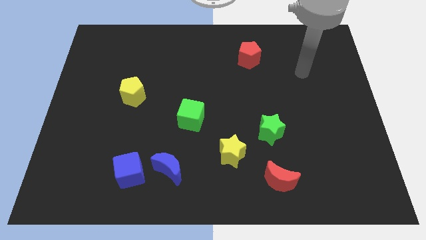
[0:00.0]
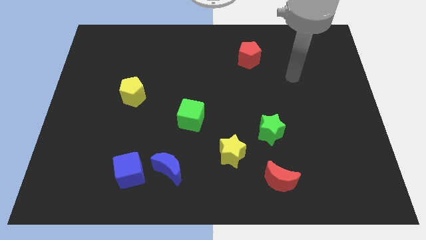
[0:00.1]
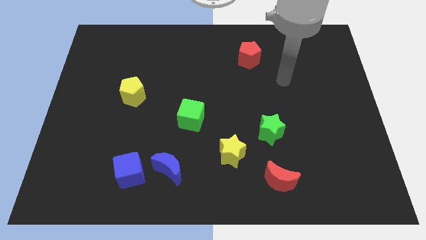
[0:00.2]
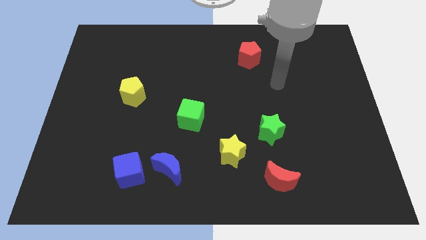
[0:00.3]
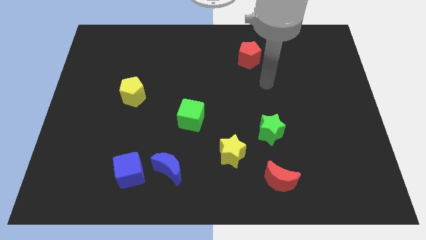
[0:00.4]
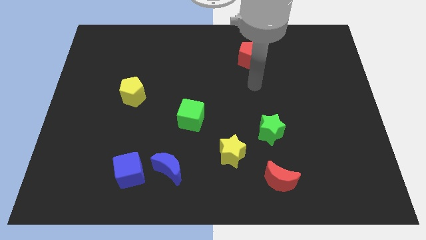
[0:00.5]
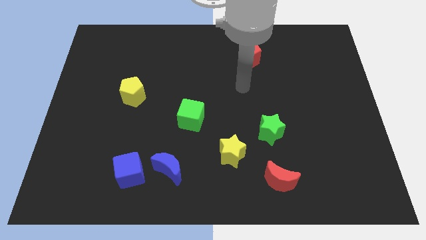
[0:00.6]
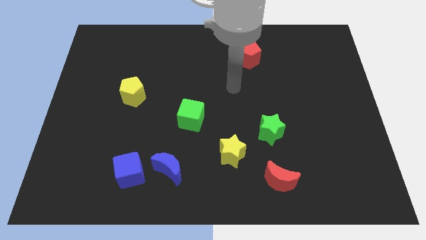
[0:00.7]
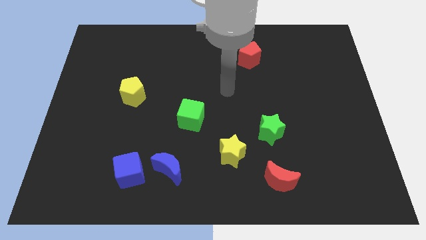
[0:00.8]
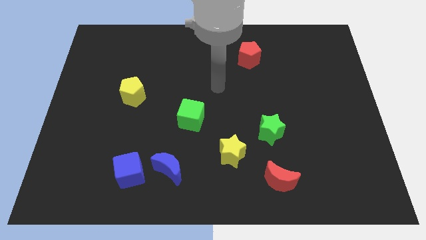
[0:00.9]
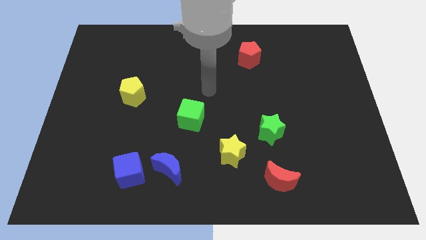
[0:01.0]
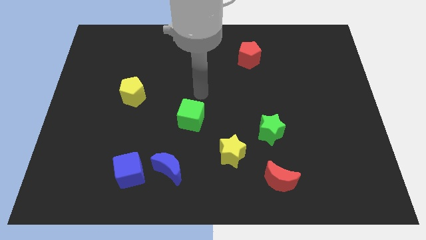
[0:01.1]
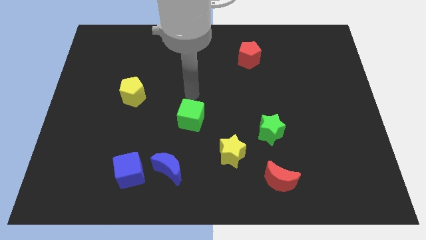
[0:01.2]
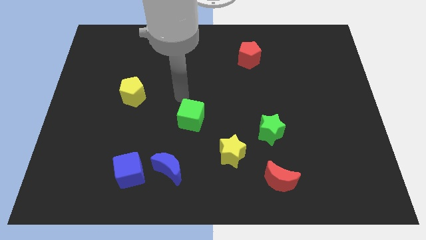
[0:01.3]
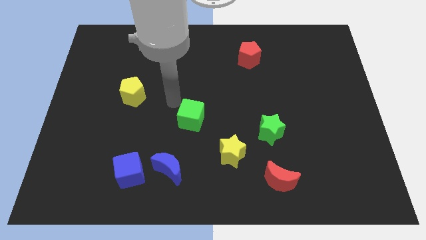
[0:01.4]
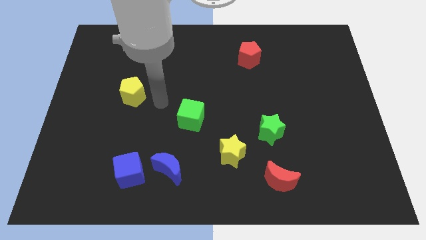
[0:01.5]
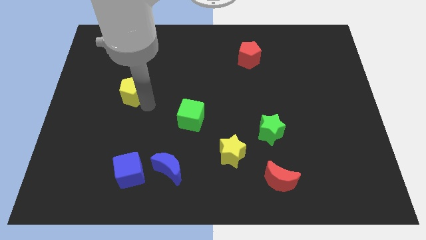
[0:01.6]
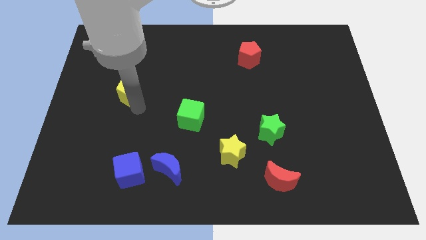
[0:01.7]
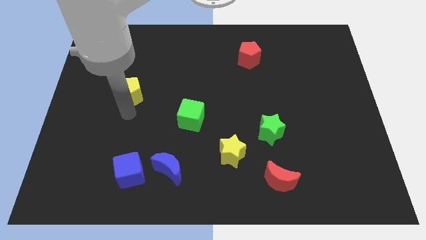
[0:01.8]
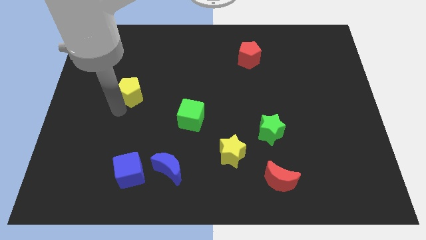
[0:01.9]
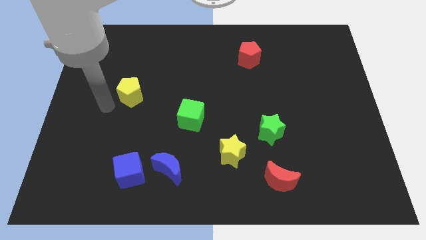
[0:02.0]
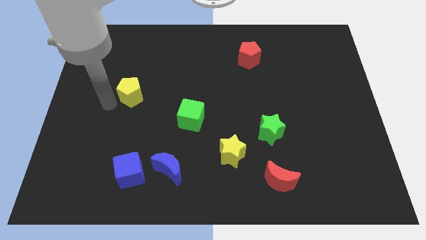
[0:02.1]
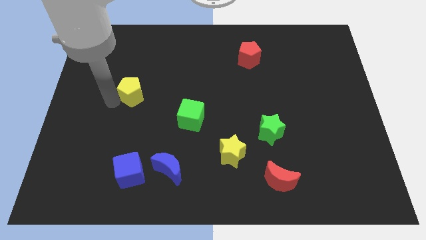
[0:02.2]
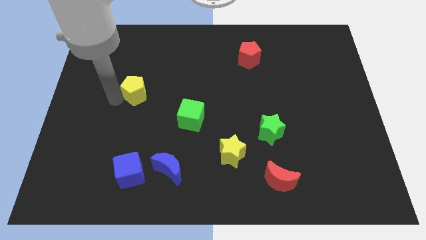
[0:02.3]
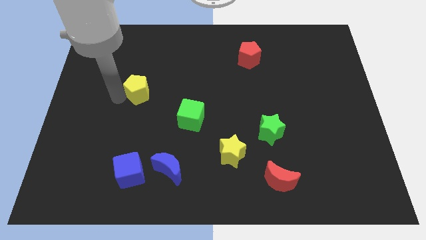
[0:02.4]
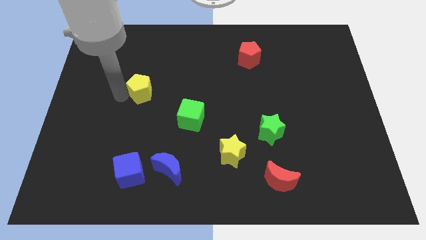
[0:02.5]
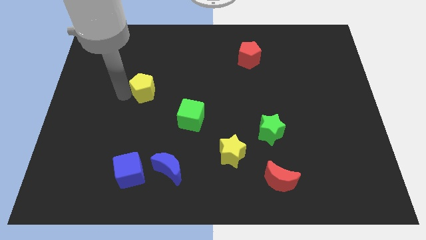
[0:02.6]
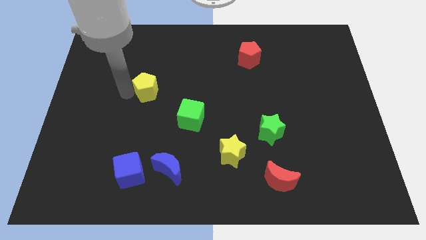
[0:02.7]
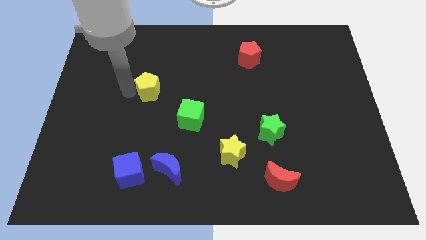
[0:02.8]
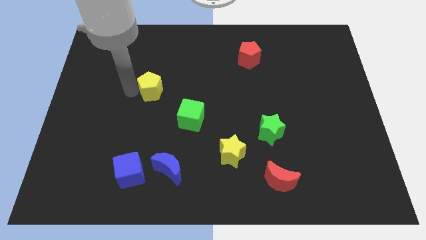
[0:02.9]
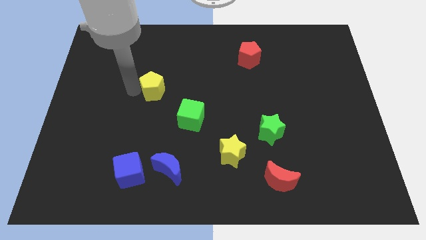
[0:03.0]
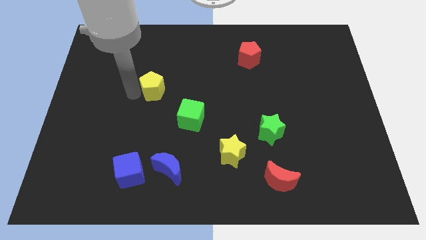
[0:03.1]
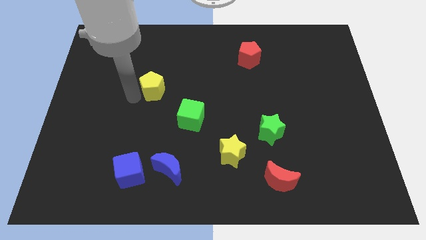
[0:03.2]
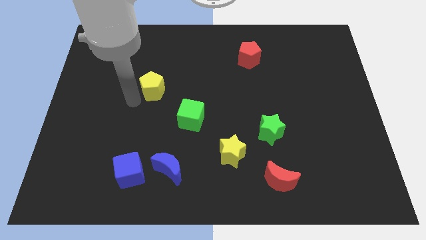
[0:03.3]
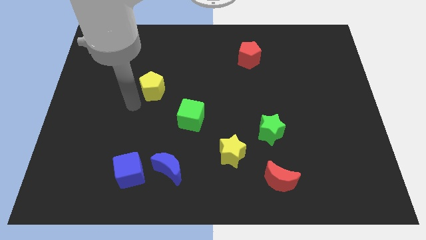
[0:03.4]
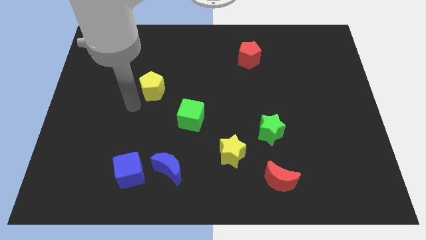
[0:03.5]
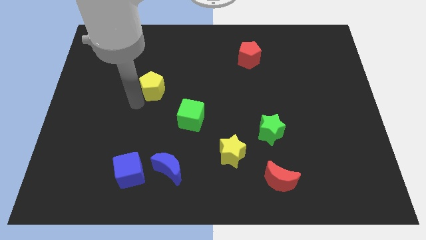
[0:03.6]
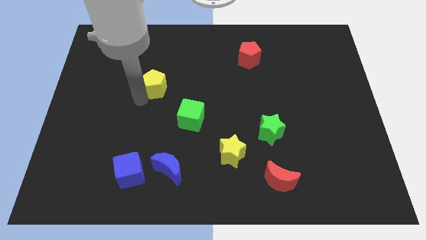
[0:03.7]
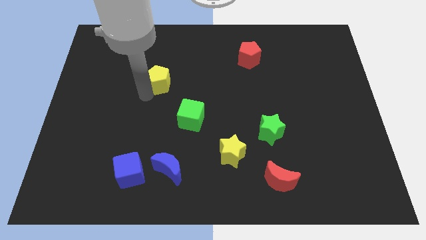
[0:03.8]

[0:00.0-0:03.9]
slide the yellow pentagon upwards and then right slightly

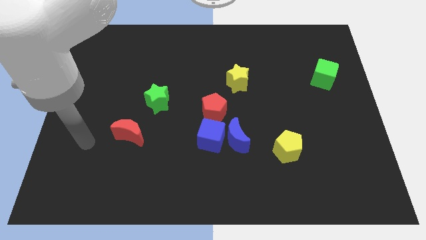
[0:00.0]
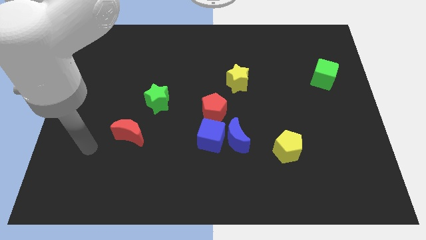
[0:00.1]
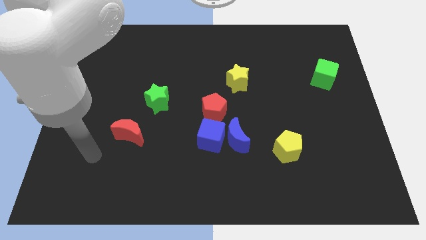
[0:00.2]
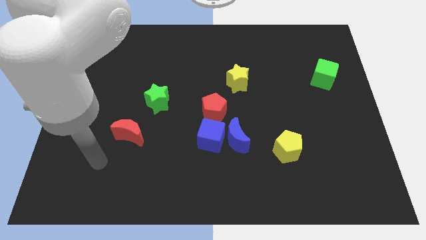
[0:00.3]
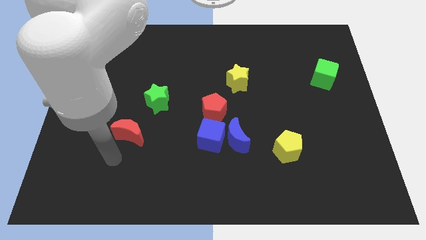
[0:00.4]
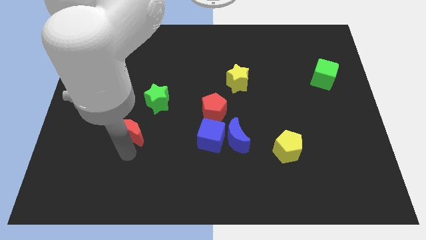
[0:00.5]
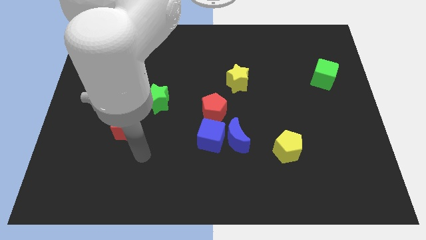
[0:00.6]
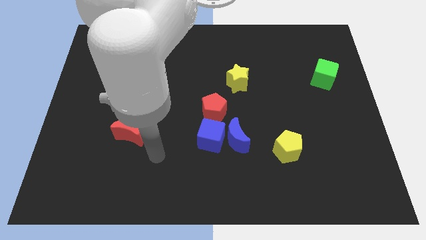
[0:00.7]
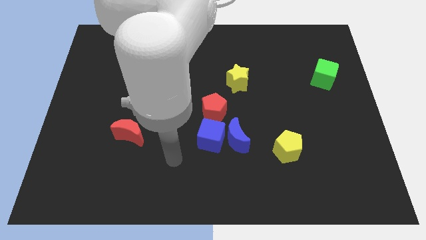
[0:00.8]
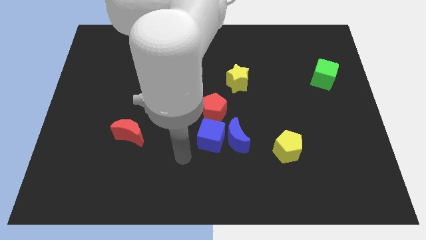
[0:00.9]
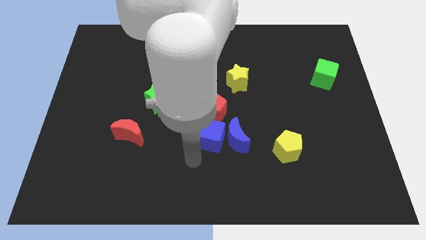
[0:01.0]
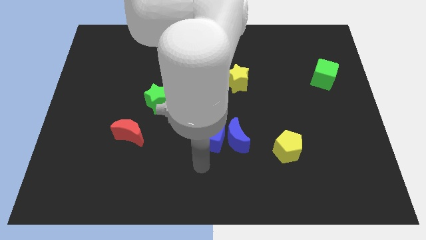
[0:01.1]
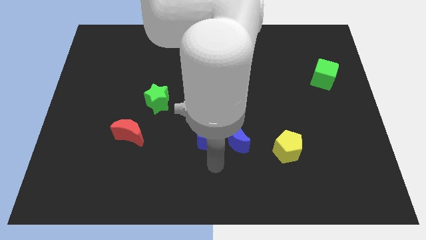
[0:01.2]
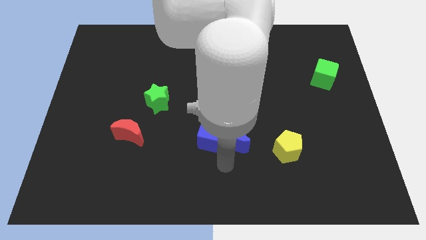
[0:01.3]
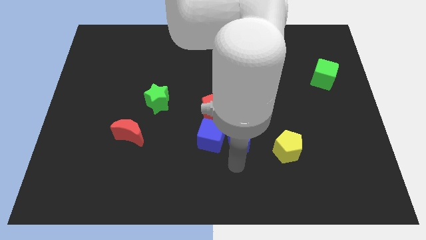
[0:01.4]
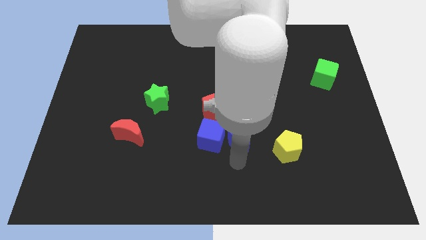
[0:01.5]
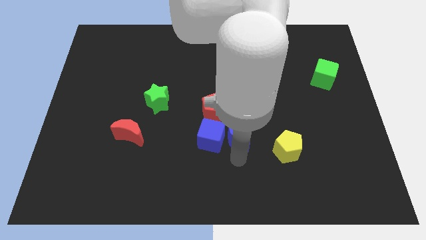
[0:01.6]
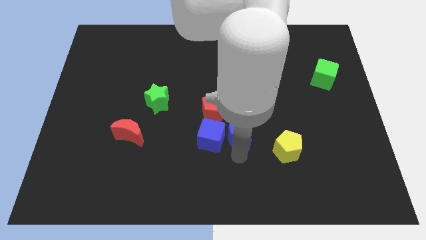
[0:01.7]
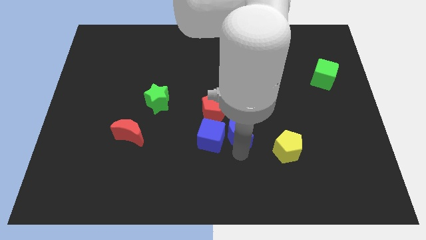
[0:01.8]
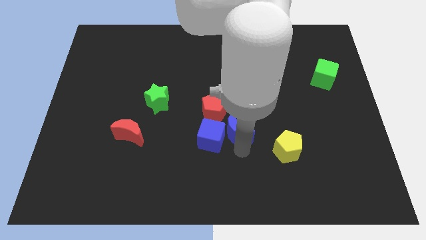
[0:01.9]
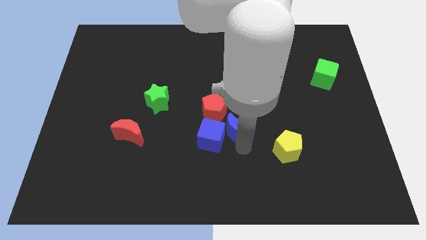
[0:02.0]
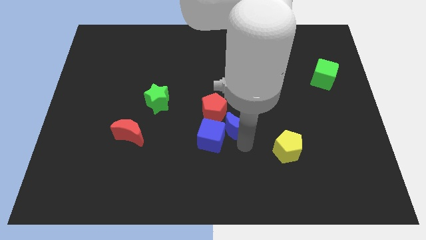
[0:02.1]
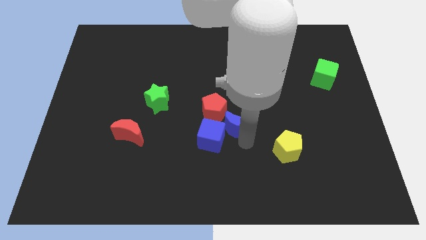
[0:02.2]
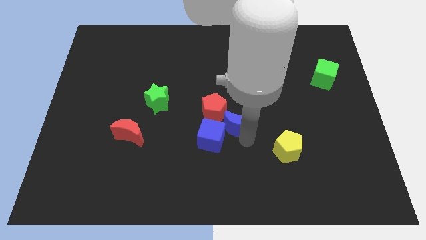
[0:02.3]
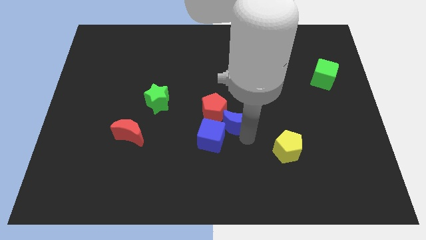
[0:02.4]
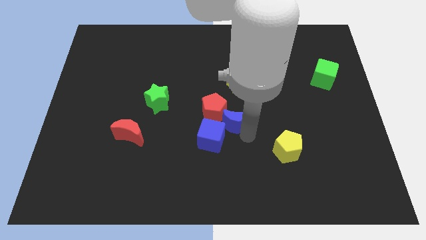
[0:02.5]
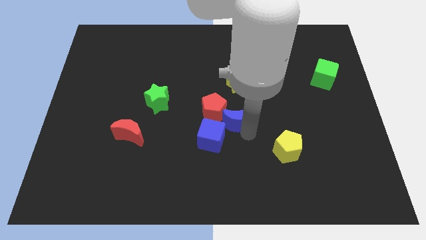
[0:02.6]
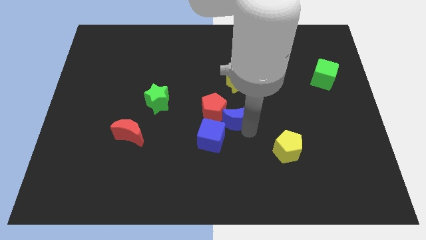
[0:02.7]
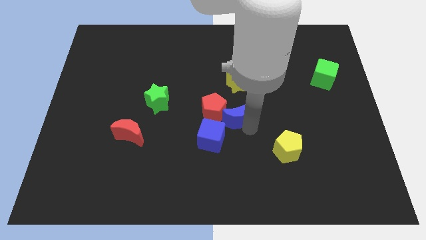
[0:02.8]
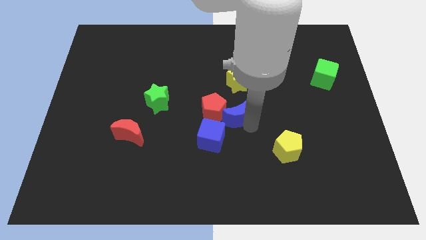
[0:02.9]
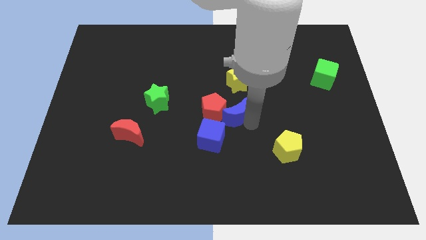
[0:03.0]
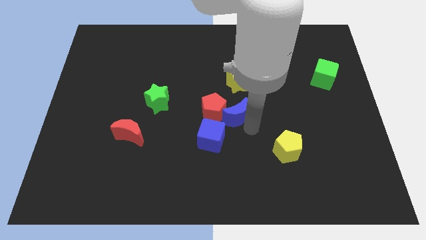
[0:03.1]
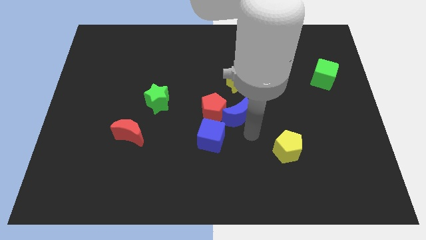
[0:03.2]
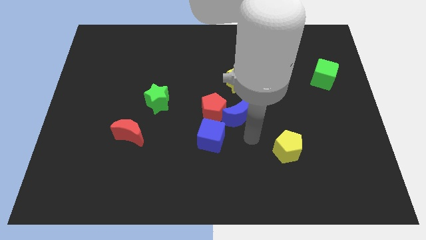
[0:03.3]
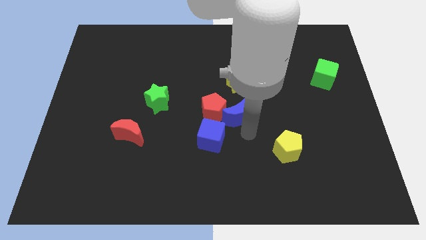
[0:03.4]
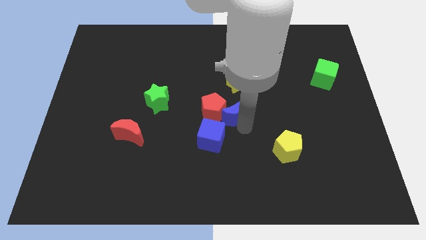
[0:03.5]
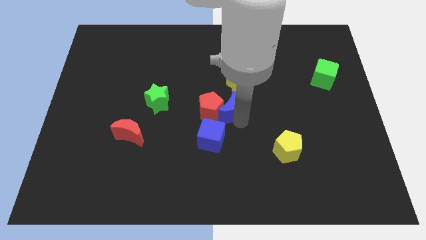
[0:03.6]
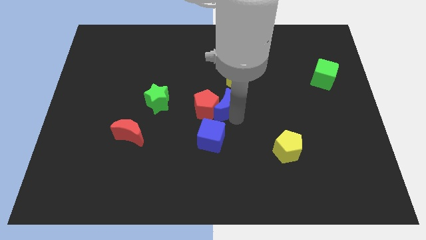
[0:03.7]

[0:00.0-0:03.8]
push the blue moon a bit diagonally upwards and to the left

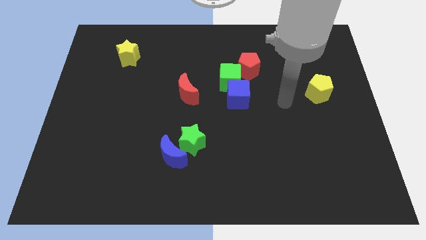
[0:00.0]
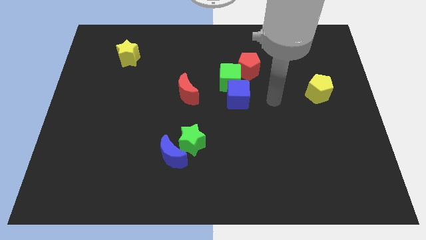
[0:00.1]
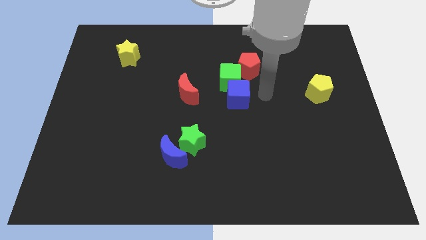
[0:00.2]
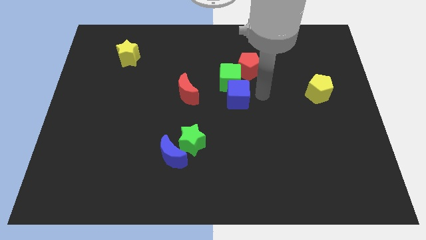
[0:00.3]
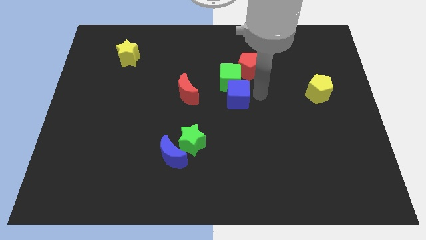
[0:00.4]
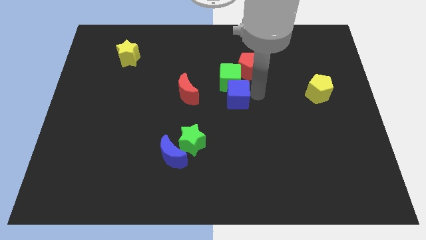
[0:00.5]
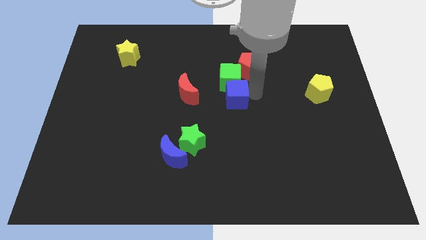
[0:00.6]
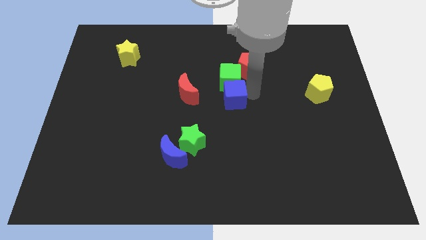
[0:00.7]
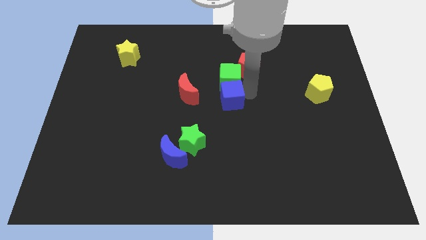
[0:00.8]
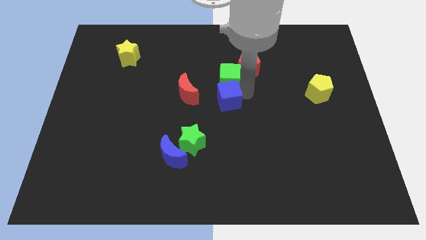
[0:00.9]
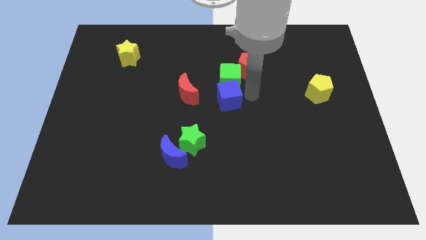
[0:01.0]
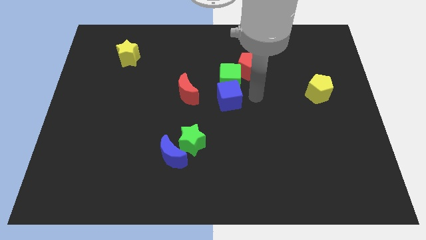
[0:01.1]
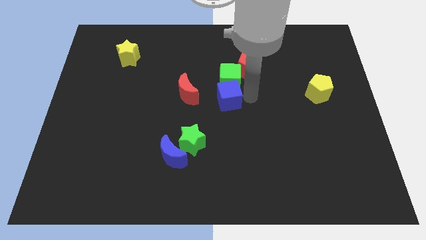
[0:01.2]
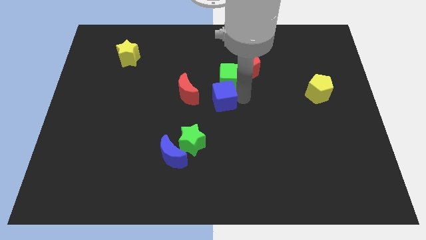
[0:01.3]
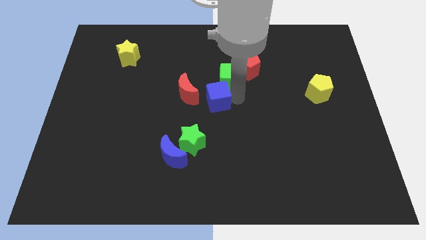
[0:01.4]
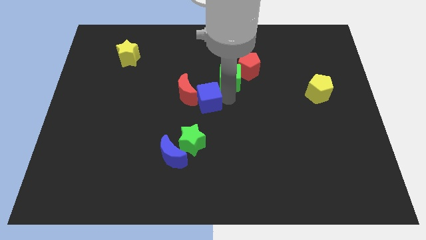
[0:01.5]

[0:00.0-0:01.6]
push the blue cube left slightly
